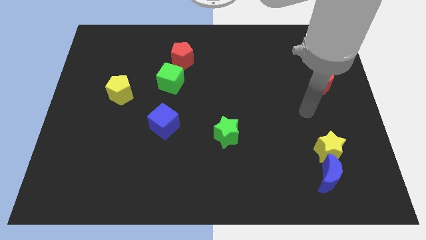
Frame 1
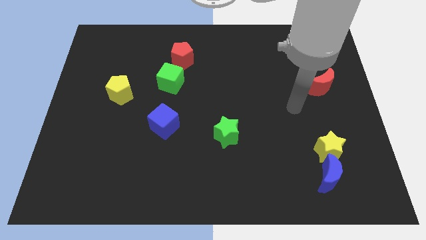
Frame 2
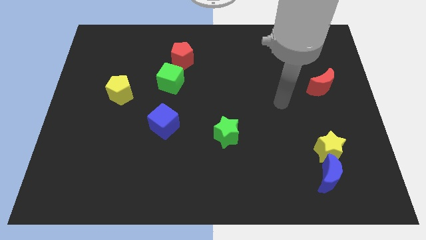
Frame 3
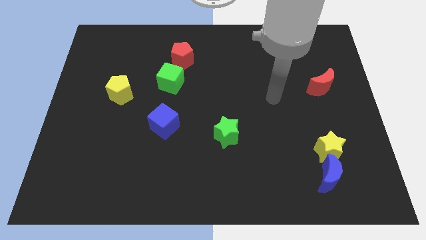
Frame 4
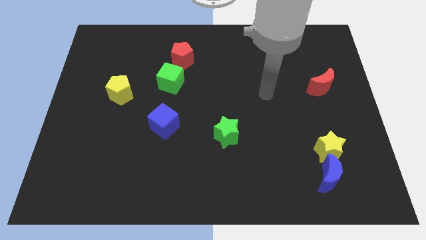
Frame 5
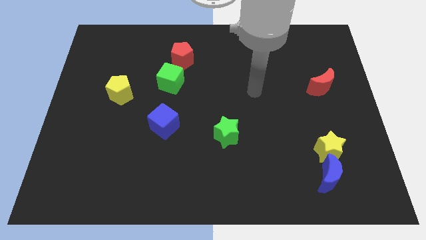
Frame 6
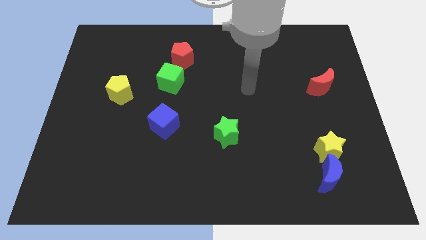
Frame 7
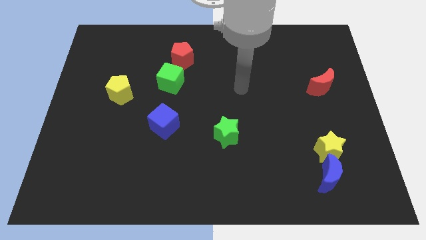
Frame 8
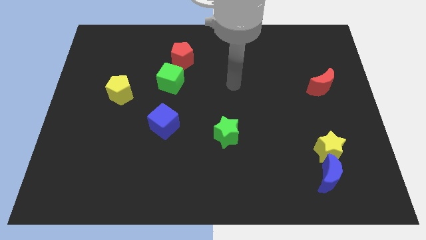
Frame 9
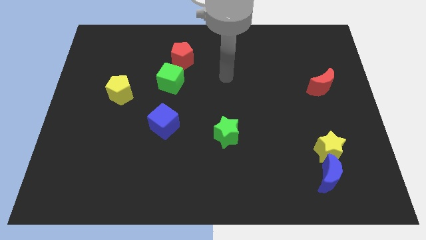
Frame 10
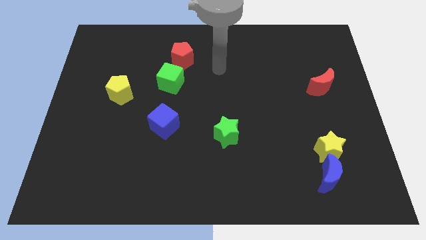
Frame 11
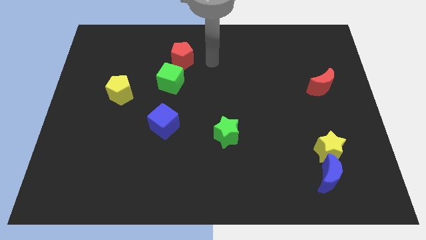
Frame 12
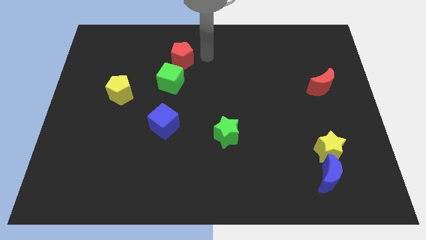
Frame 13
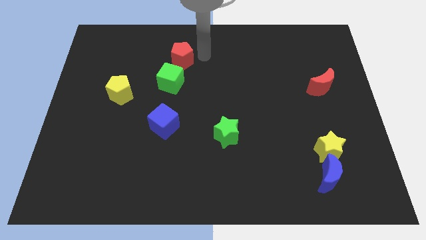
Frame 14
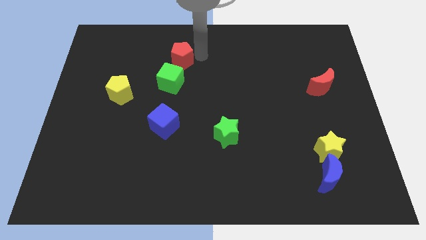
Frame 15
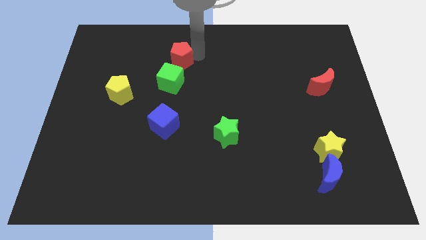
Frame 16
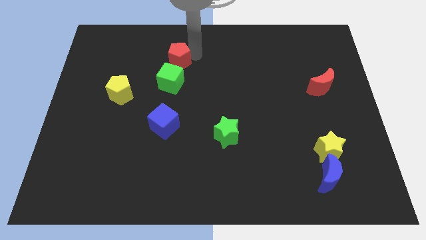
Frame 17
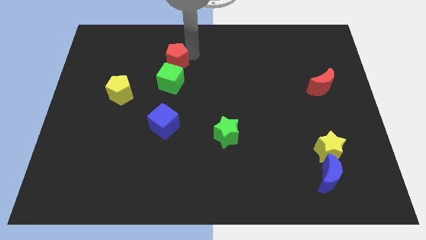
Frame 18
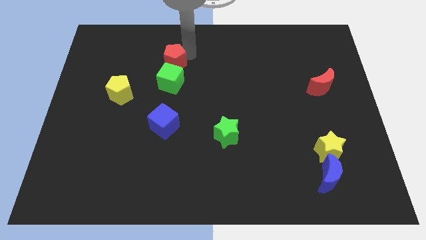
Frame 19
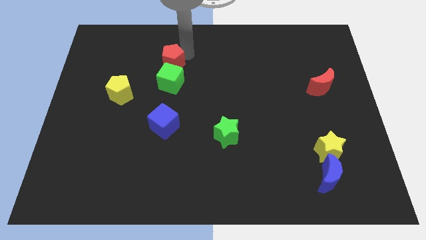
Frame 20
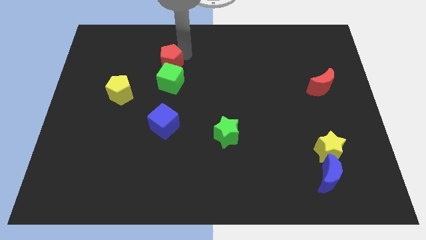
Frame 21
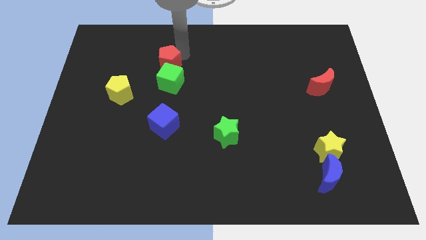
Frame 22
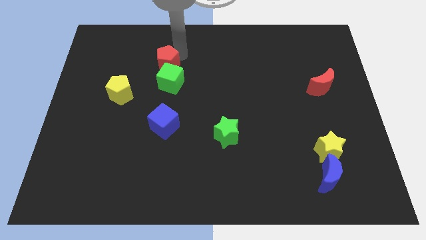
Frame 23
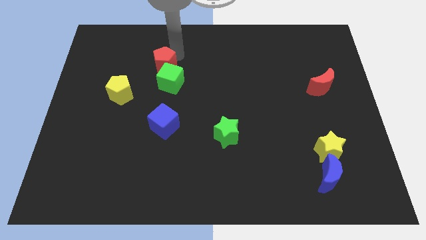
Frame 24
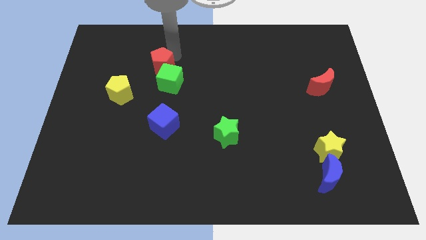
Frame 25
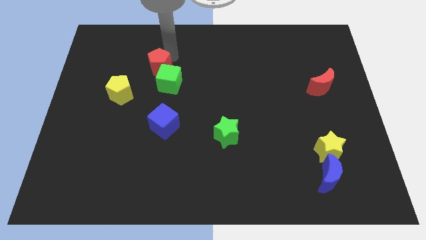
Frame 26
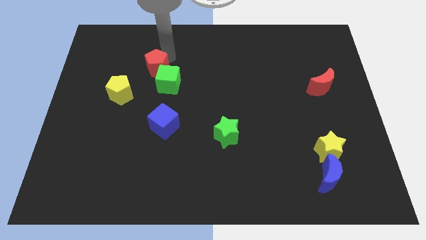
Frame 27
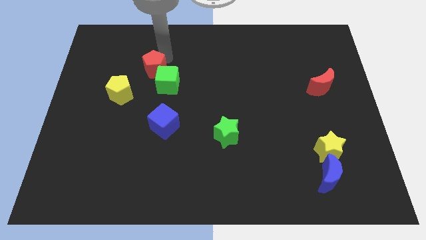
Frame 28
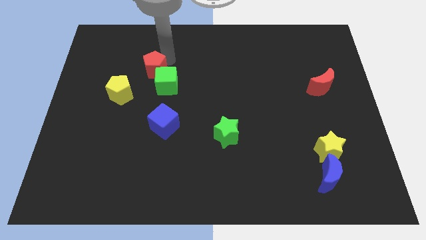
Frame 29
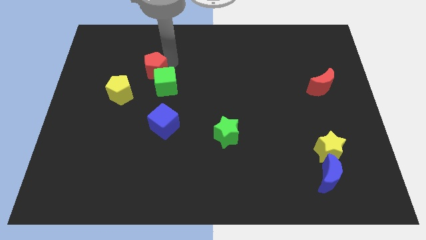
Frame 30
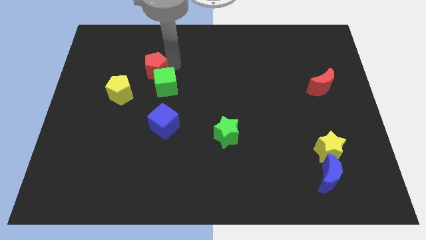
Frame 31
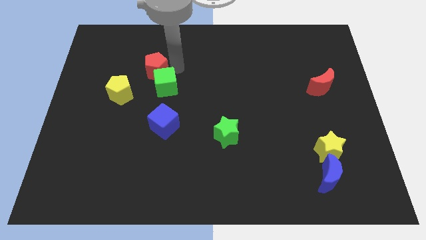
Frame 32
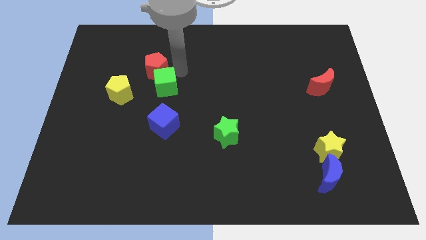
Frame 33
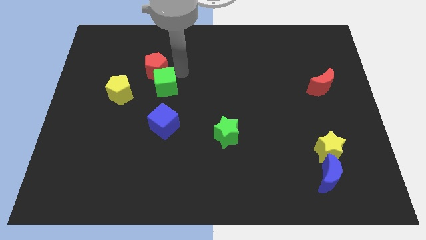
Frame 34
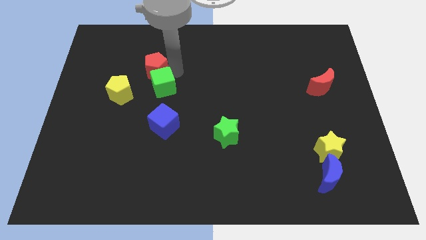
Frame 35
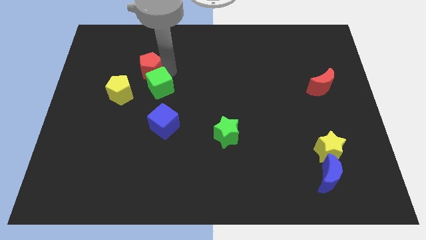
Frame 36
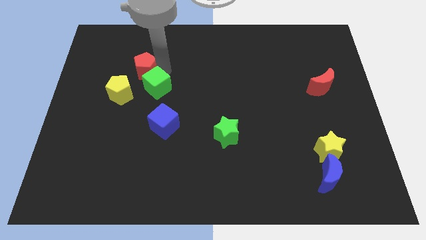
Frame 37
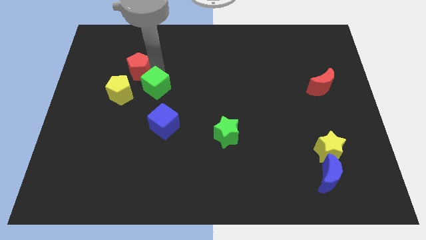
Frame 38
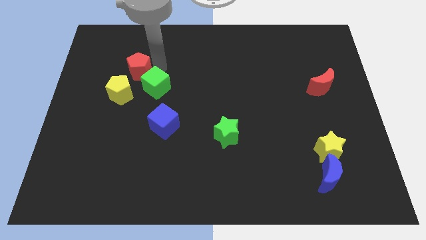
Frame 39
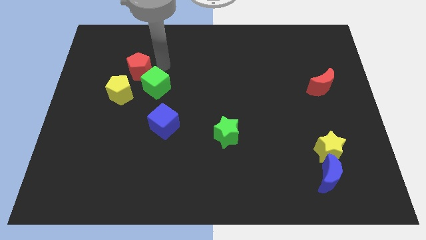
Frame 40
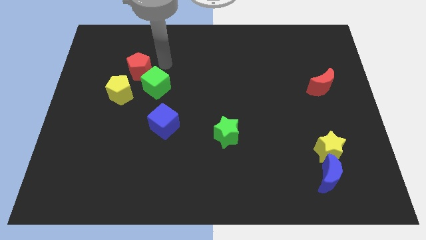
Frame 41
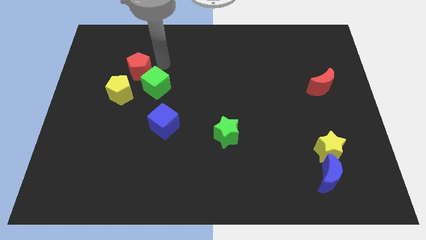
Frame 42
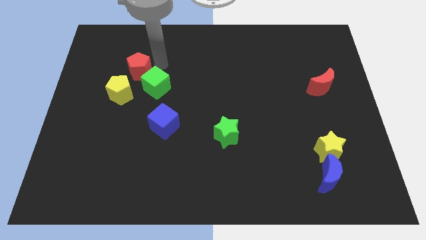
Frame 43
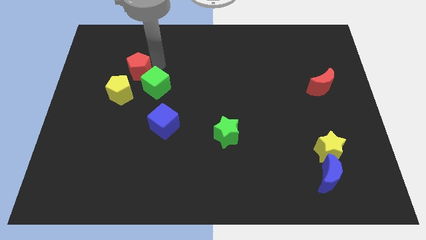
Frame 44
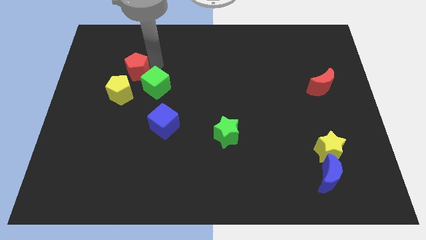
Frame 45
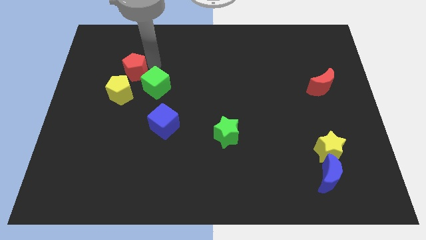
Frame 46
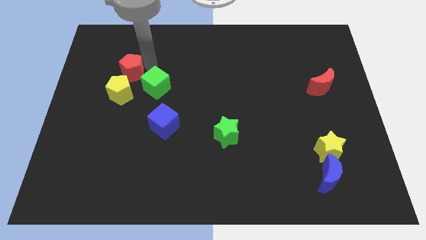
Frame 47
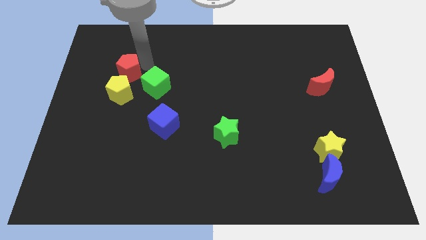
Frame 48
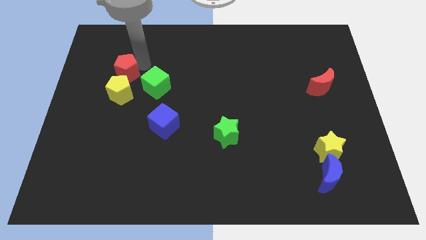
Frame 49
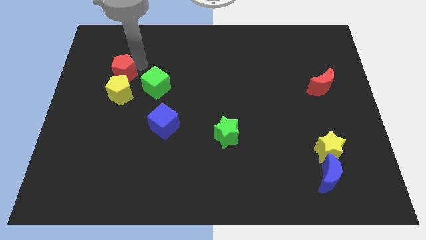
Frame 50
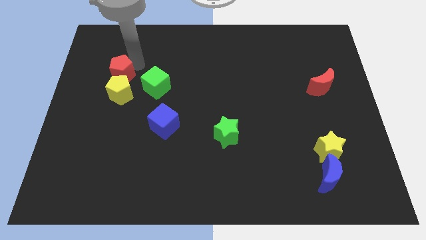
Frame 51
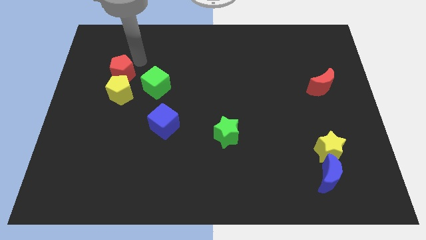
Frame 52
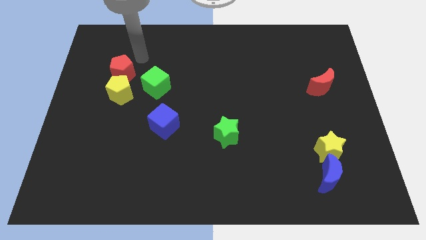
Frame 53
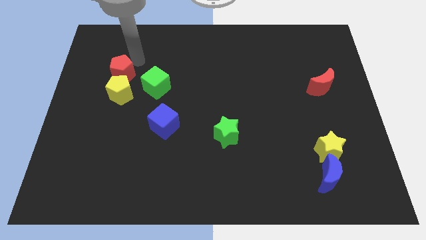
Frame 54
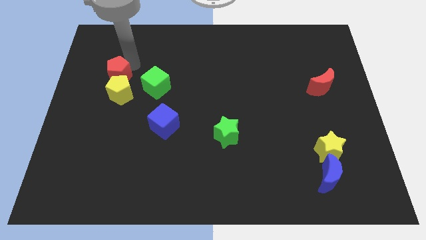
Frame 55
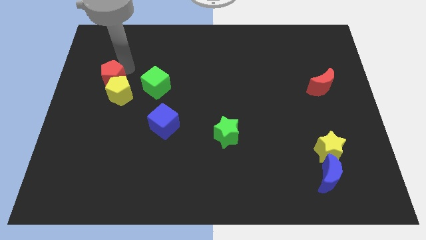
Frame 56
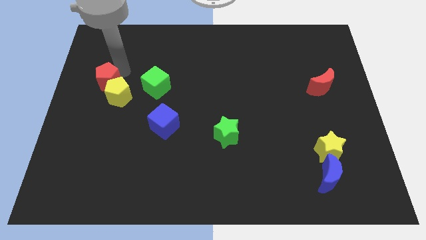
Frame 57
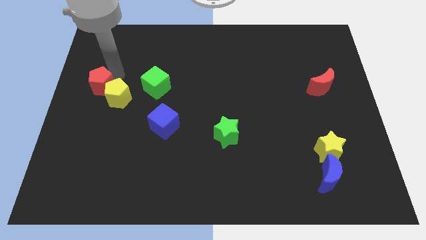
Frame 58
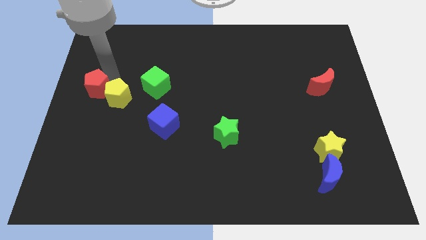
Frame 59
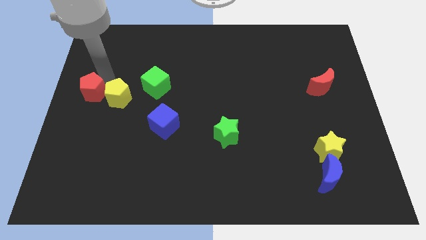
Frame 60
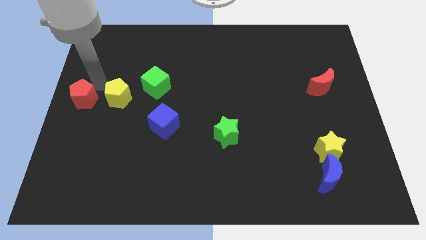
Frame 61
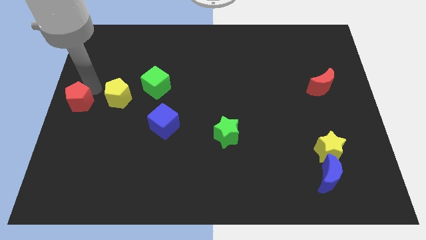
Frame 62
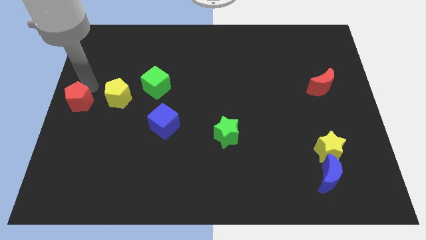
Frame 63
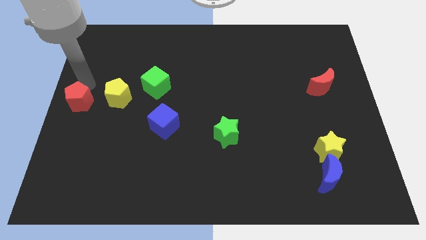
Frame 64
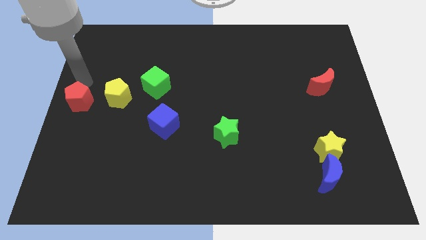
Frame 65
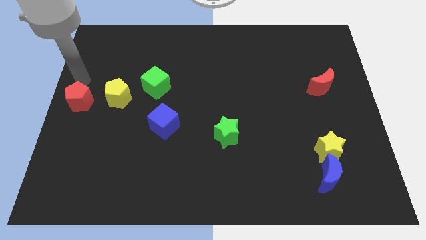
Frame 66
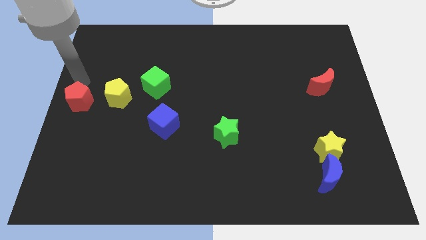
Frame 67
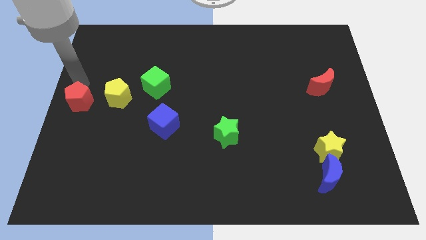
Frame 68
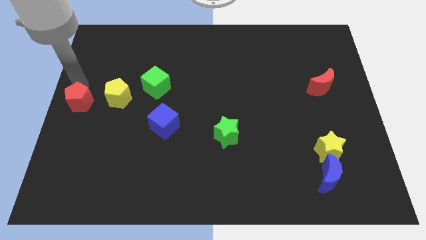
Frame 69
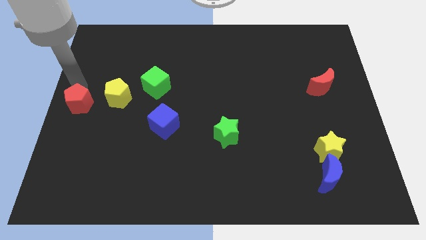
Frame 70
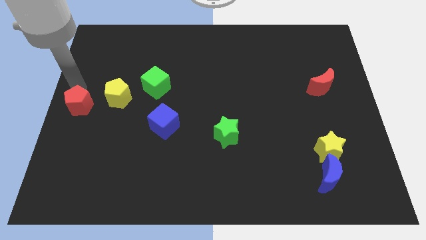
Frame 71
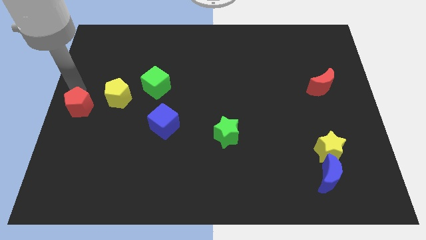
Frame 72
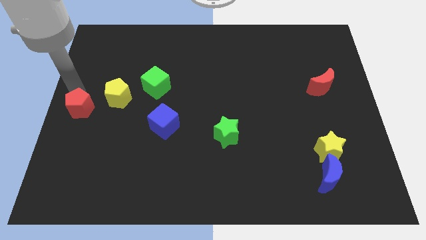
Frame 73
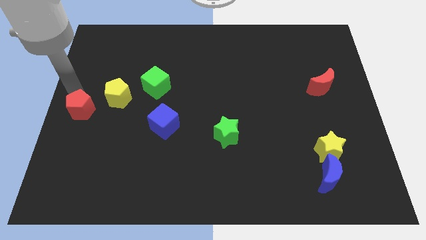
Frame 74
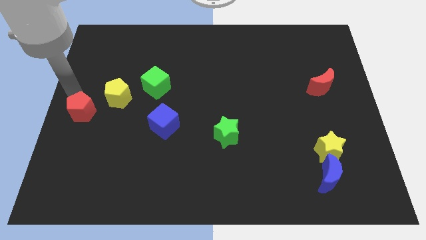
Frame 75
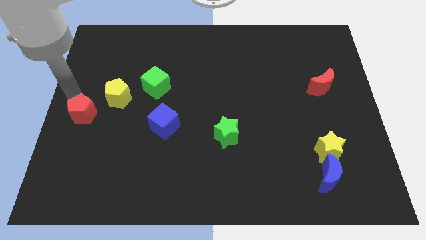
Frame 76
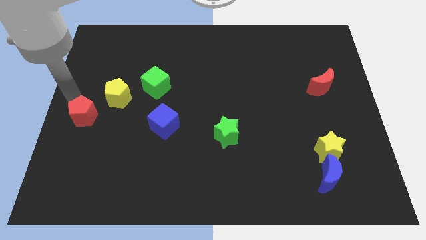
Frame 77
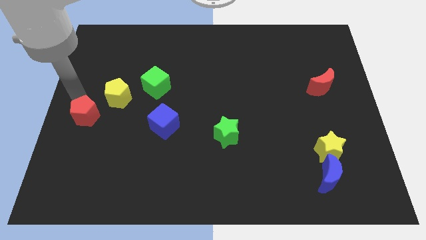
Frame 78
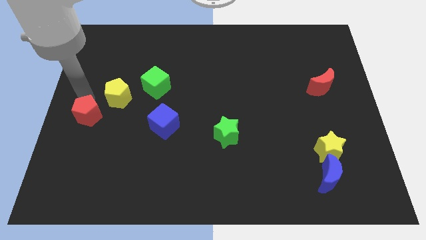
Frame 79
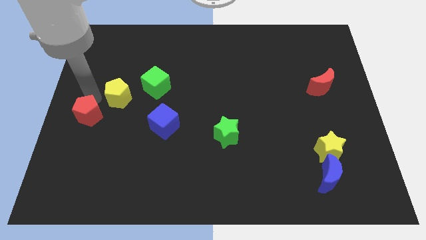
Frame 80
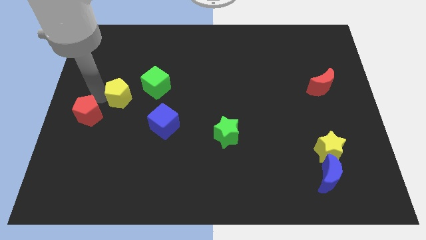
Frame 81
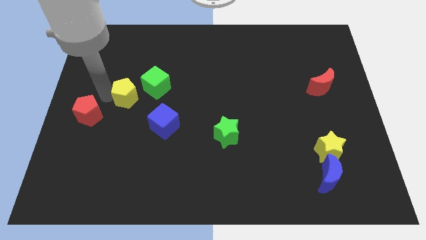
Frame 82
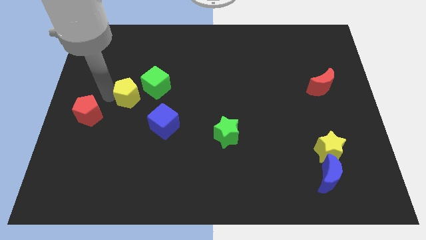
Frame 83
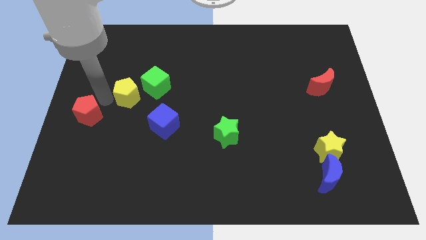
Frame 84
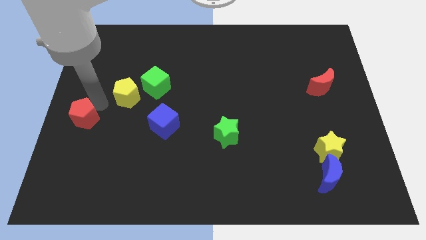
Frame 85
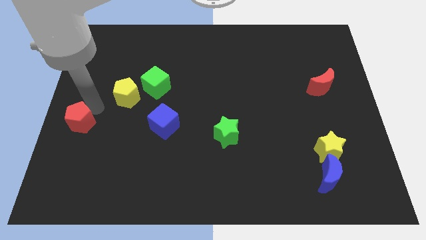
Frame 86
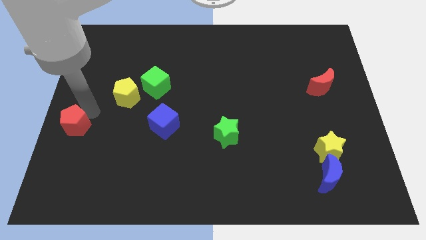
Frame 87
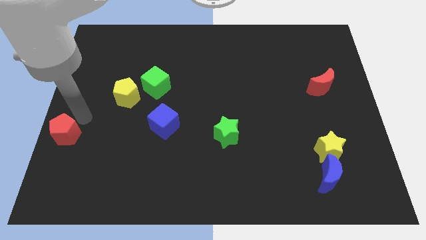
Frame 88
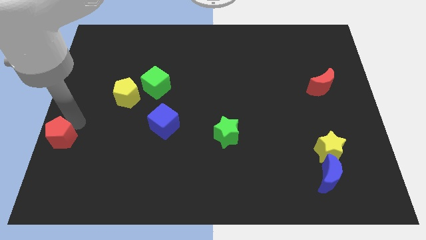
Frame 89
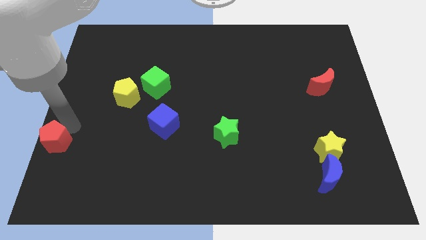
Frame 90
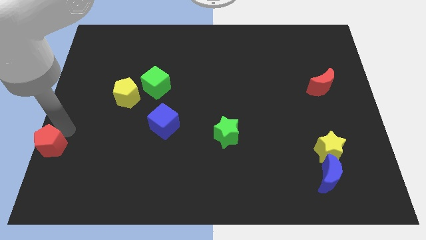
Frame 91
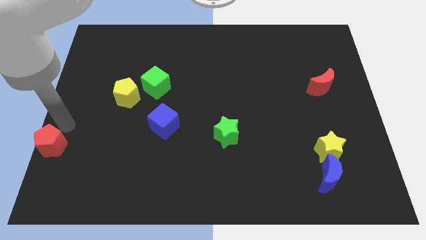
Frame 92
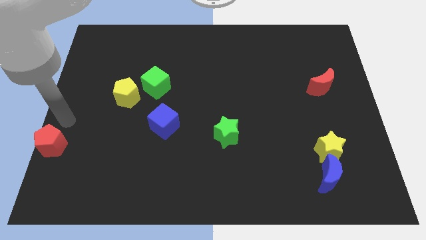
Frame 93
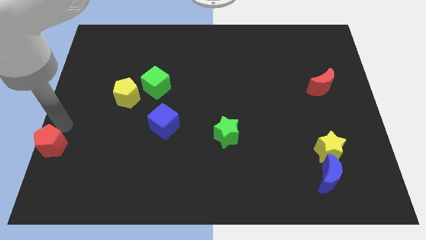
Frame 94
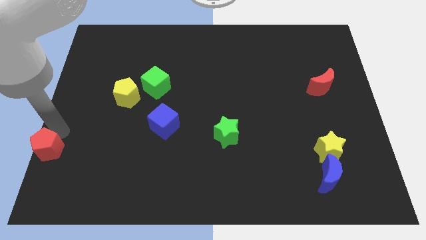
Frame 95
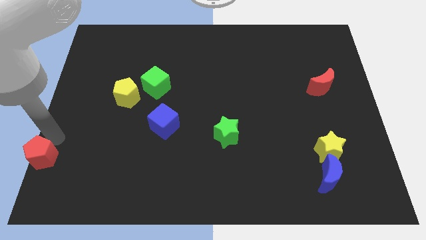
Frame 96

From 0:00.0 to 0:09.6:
push the red pentagon to the bottom left corner
